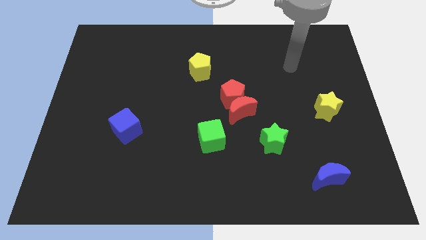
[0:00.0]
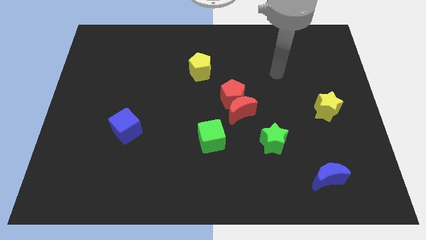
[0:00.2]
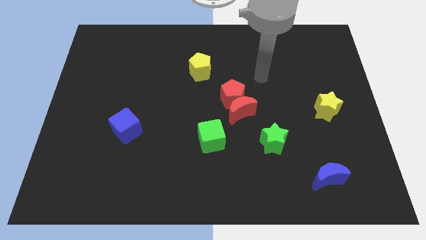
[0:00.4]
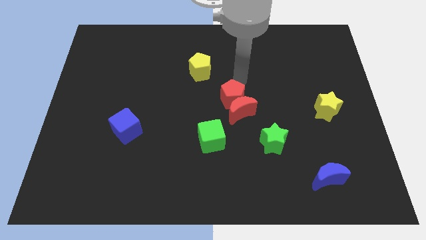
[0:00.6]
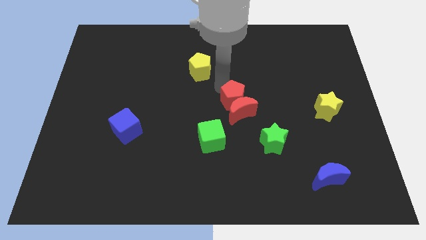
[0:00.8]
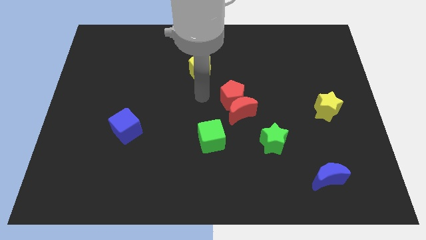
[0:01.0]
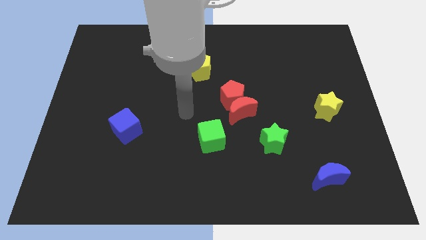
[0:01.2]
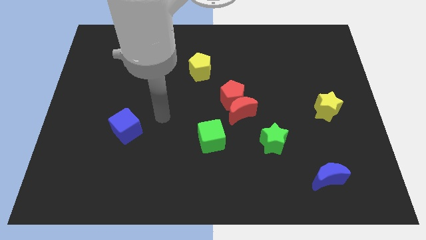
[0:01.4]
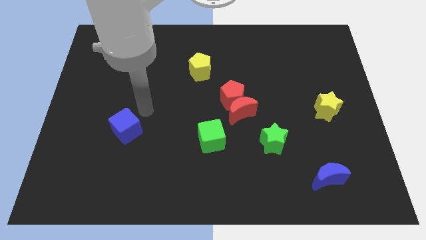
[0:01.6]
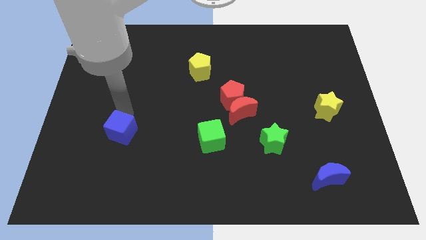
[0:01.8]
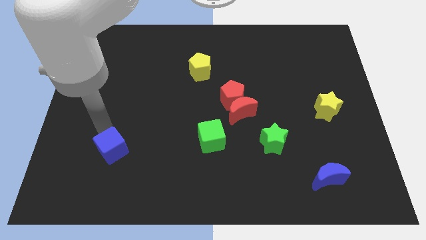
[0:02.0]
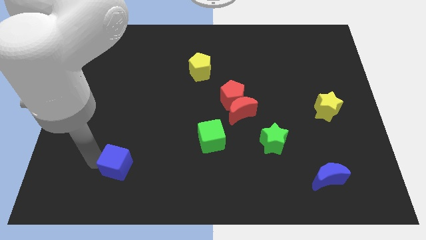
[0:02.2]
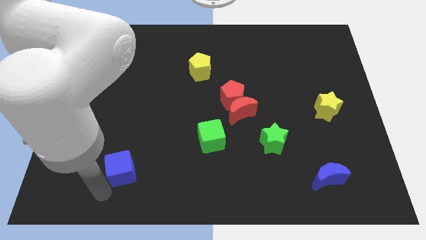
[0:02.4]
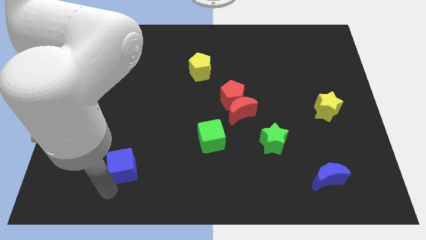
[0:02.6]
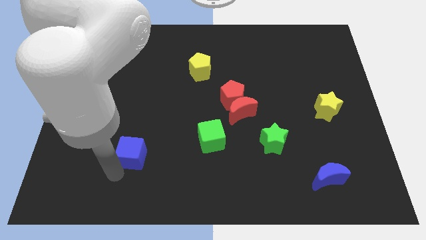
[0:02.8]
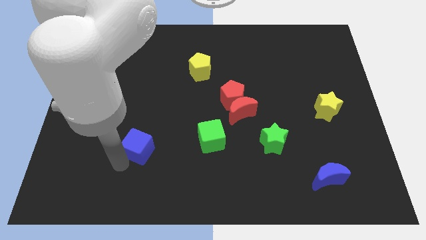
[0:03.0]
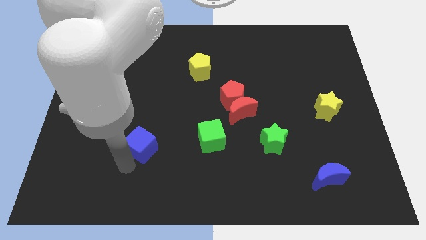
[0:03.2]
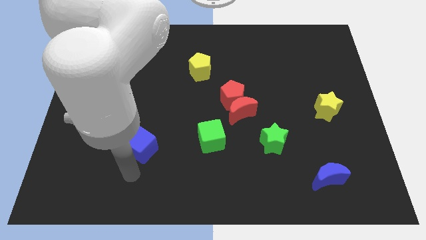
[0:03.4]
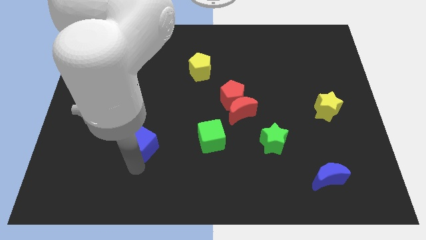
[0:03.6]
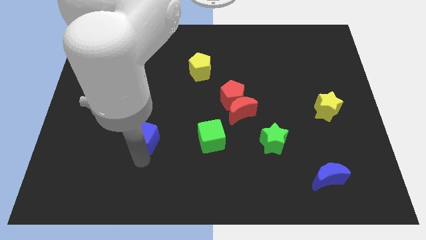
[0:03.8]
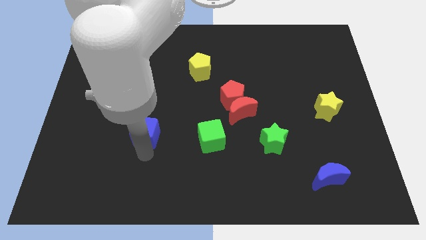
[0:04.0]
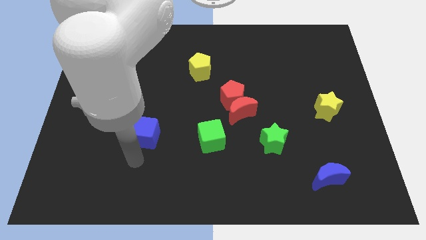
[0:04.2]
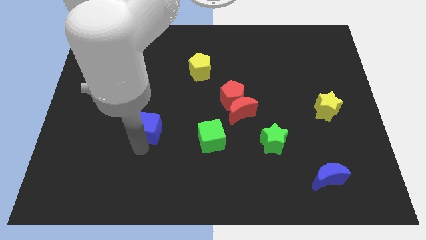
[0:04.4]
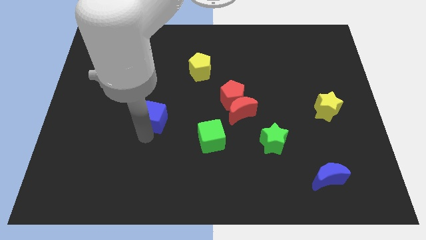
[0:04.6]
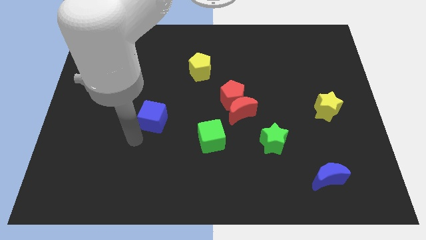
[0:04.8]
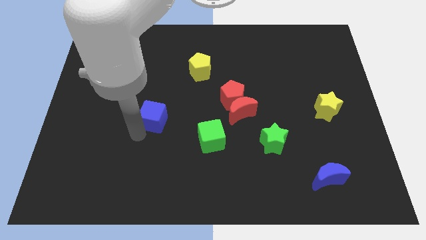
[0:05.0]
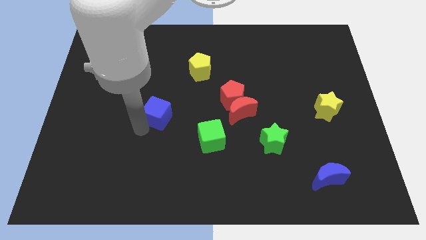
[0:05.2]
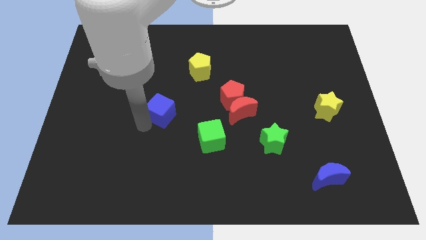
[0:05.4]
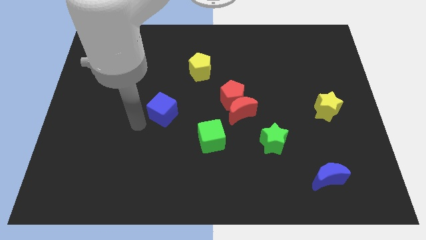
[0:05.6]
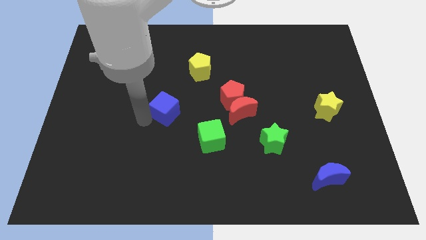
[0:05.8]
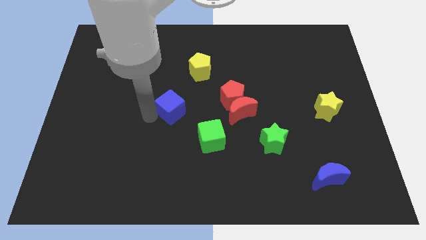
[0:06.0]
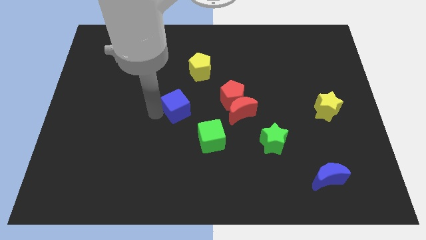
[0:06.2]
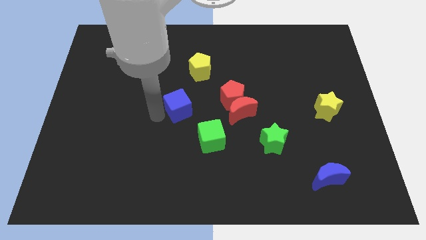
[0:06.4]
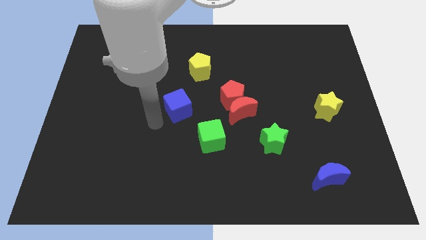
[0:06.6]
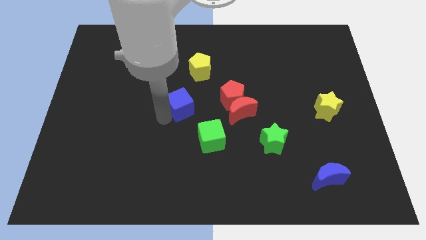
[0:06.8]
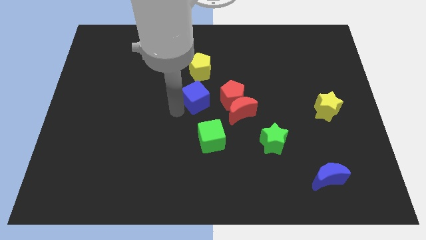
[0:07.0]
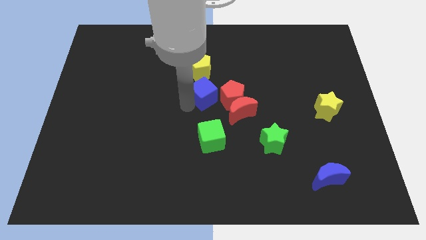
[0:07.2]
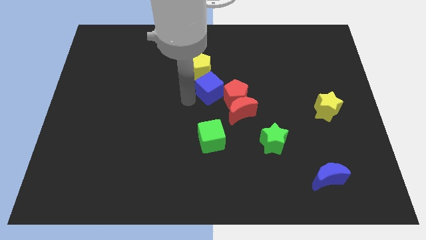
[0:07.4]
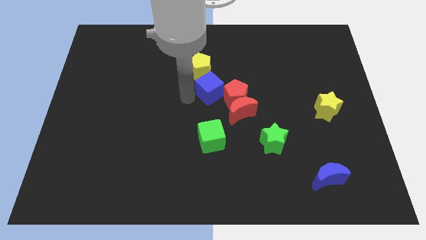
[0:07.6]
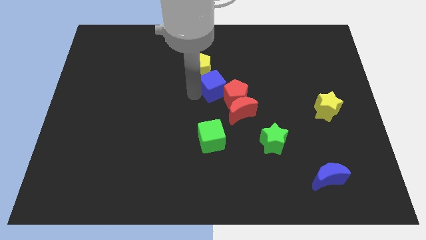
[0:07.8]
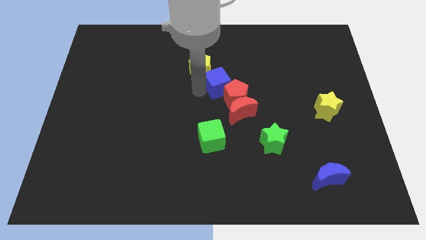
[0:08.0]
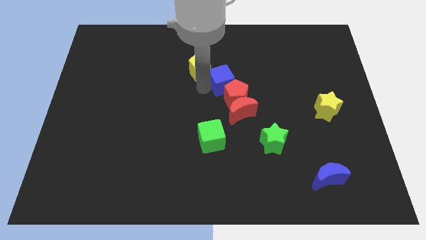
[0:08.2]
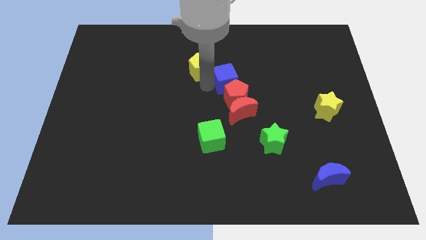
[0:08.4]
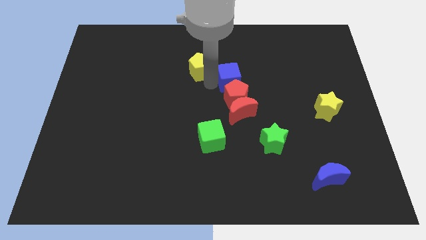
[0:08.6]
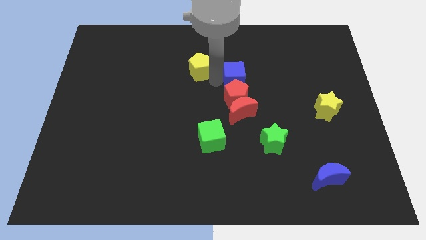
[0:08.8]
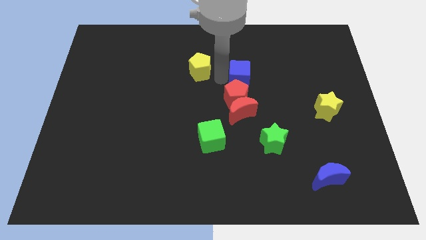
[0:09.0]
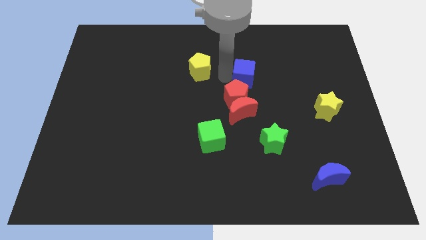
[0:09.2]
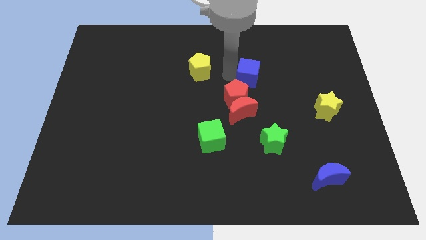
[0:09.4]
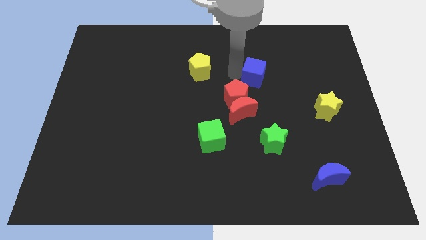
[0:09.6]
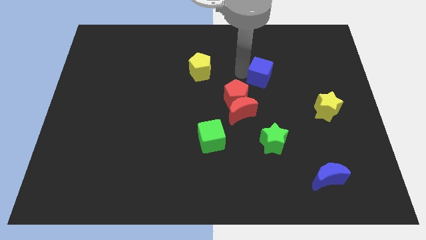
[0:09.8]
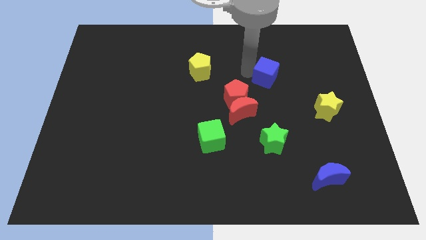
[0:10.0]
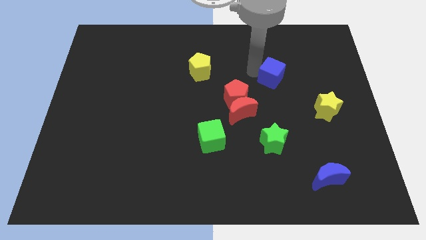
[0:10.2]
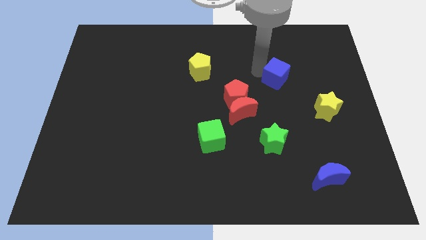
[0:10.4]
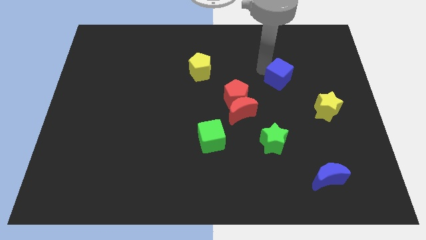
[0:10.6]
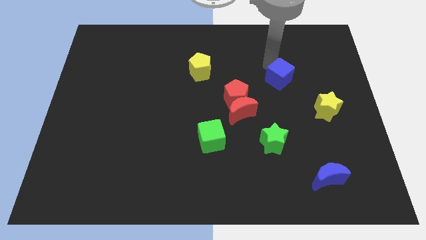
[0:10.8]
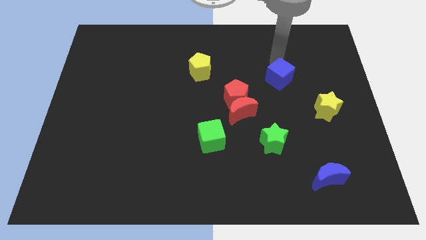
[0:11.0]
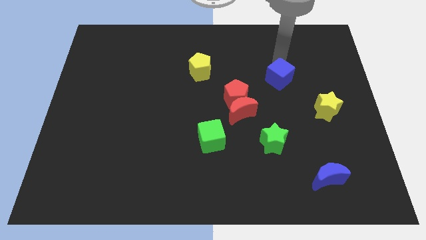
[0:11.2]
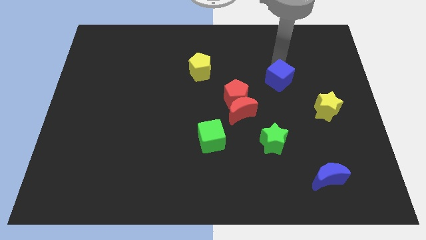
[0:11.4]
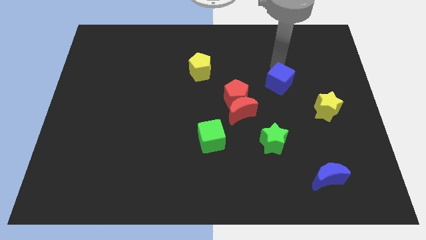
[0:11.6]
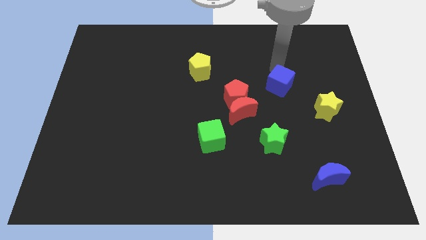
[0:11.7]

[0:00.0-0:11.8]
put the blue cube diagonally up and to the left of the yellow star

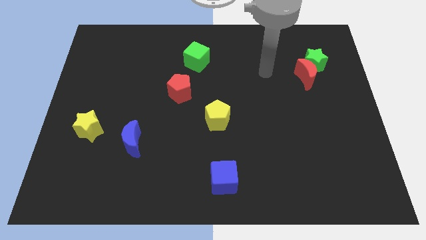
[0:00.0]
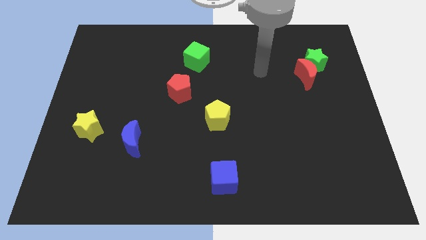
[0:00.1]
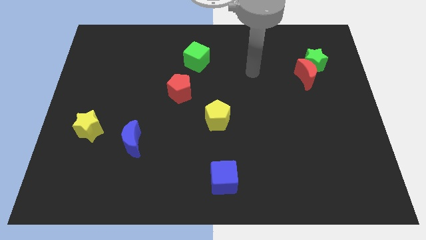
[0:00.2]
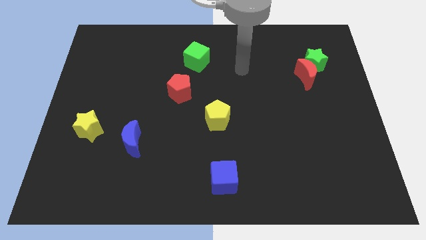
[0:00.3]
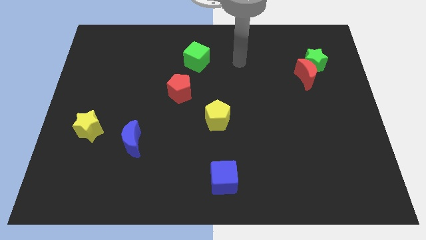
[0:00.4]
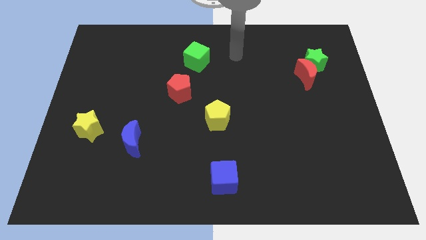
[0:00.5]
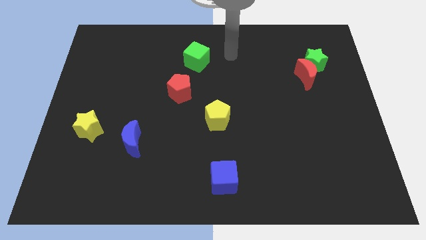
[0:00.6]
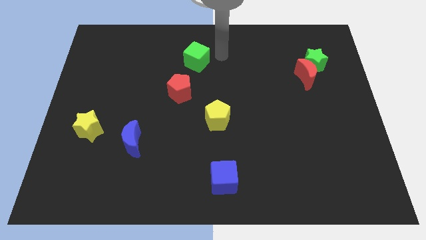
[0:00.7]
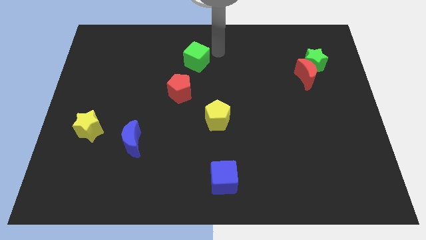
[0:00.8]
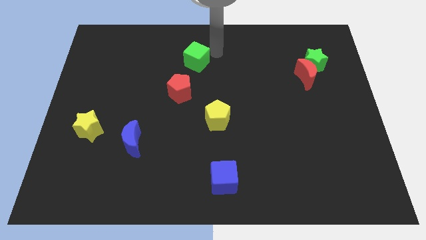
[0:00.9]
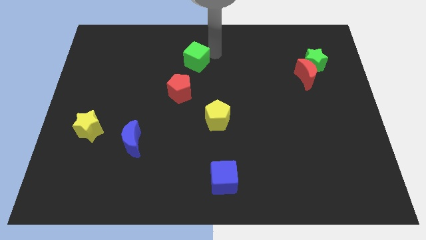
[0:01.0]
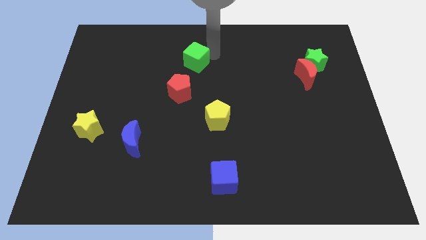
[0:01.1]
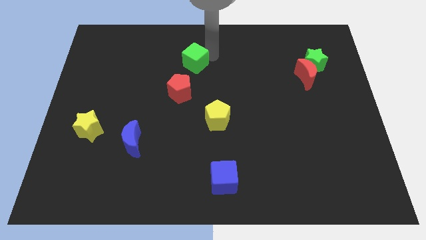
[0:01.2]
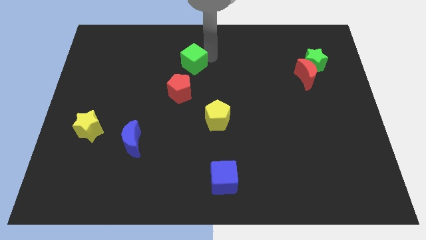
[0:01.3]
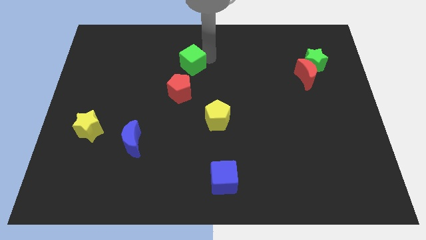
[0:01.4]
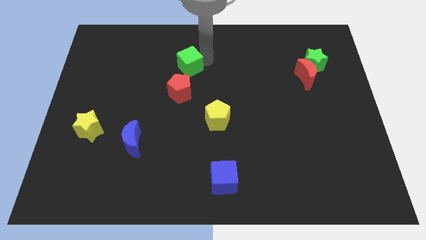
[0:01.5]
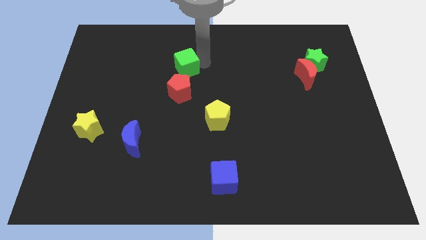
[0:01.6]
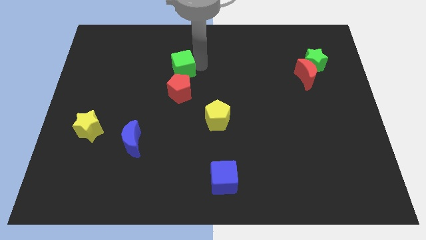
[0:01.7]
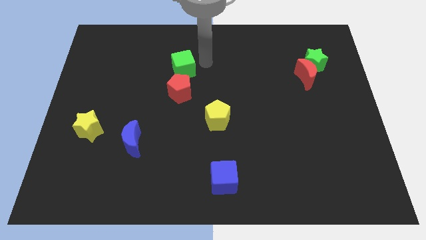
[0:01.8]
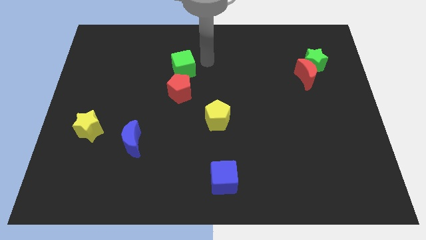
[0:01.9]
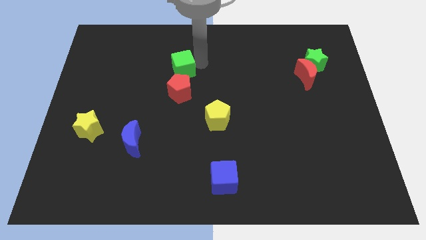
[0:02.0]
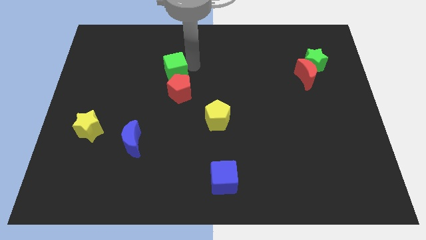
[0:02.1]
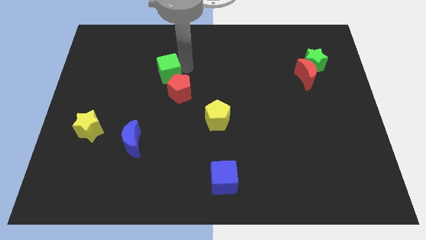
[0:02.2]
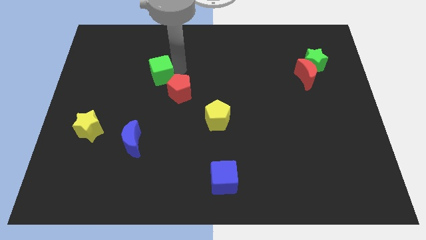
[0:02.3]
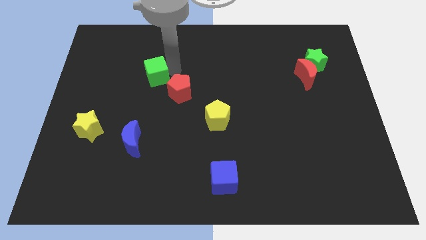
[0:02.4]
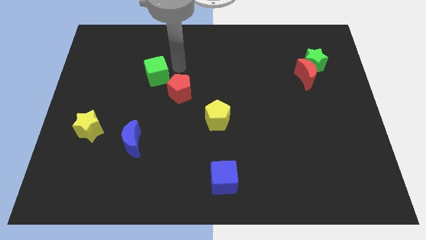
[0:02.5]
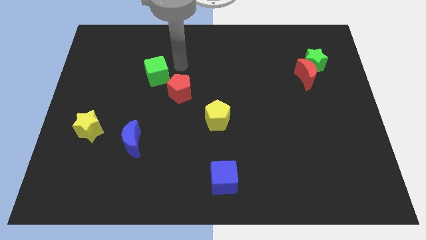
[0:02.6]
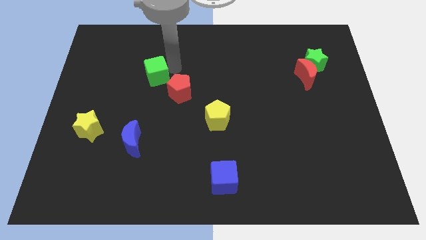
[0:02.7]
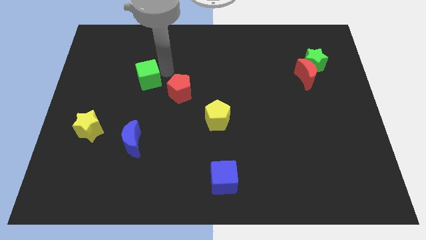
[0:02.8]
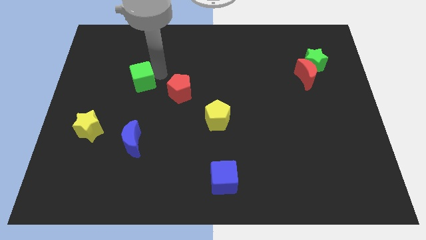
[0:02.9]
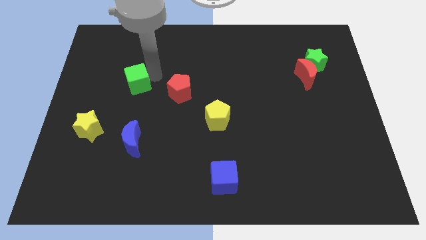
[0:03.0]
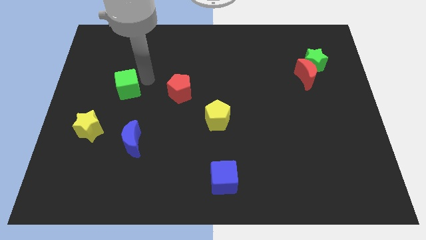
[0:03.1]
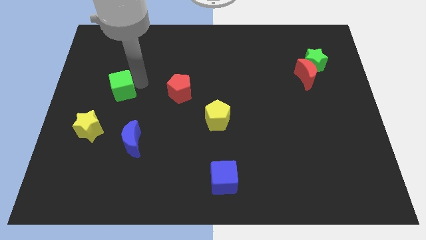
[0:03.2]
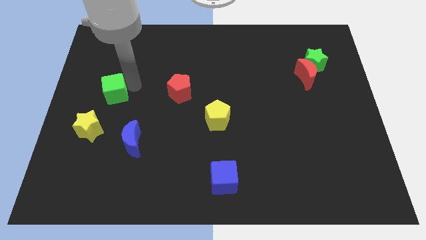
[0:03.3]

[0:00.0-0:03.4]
push the green cube to the top side of the yellow star
